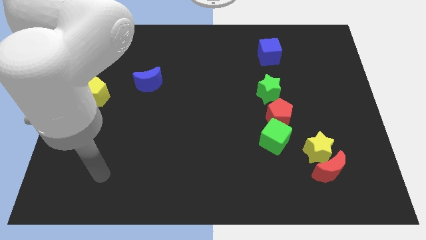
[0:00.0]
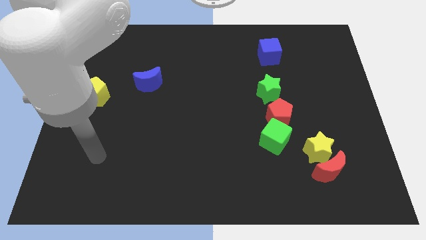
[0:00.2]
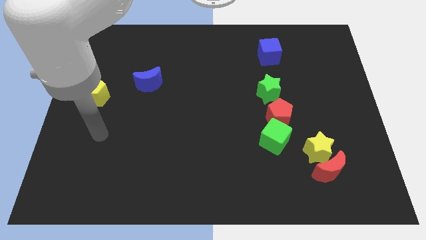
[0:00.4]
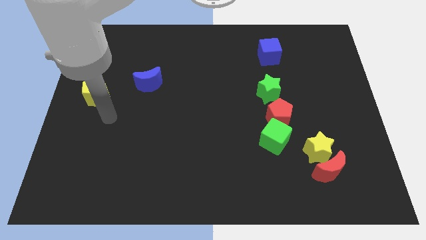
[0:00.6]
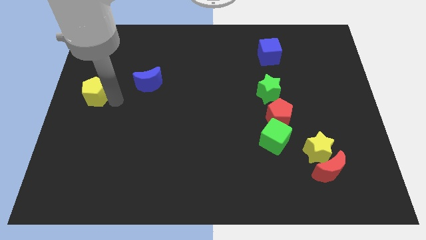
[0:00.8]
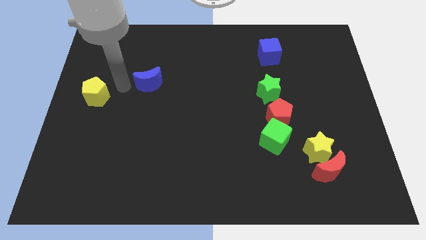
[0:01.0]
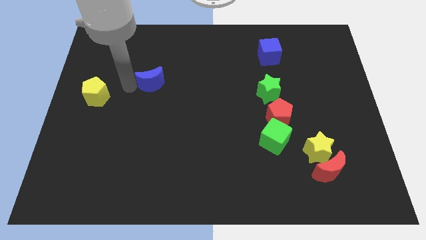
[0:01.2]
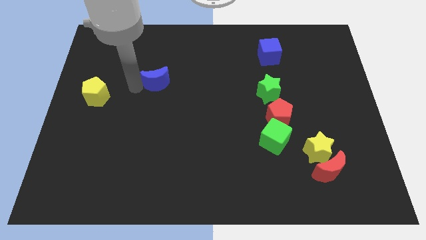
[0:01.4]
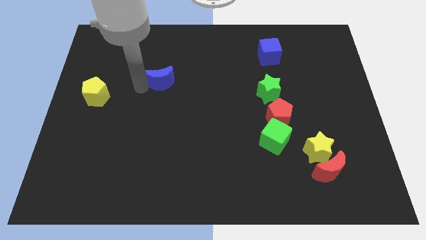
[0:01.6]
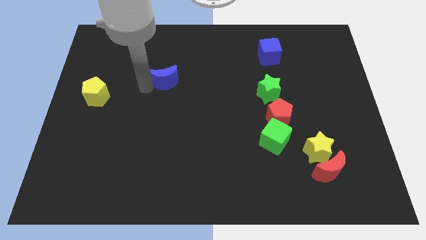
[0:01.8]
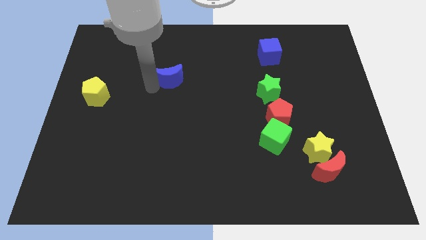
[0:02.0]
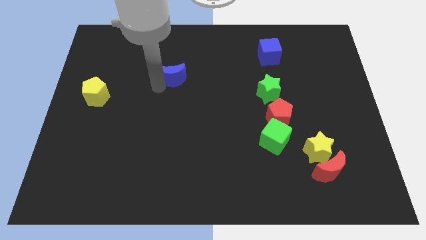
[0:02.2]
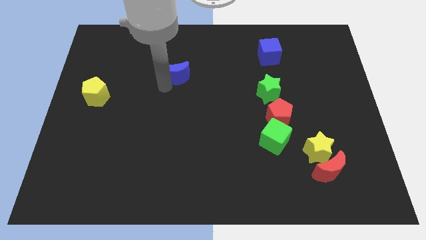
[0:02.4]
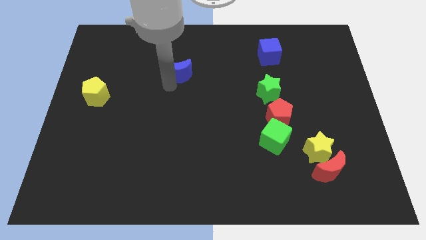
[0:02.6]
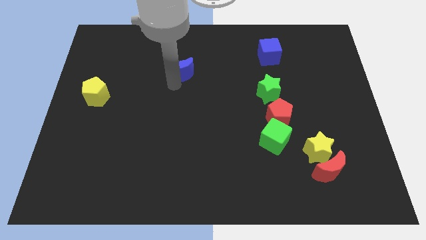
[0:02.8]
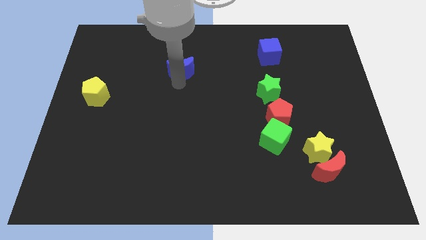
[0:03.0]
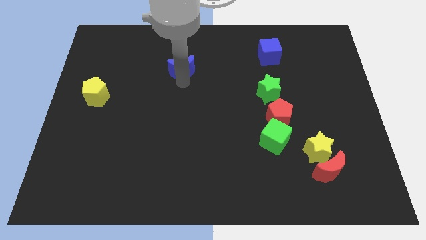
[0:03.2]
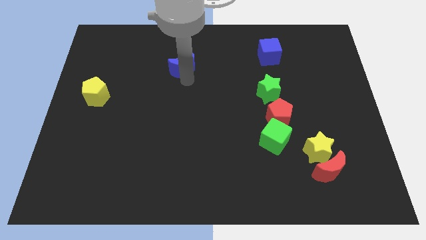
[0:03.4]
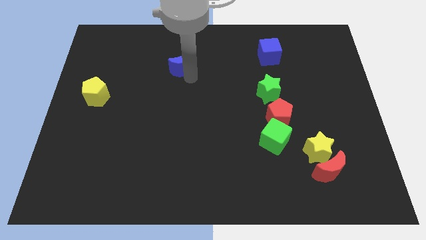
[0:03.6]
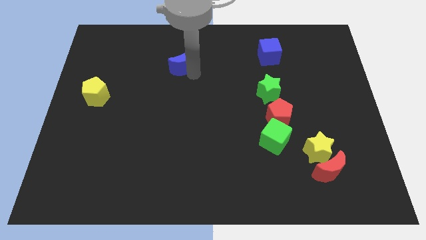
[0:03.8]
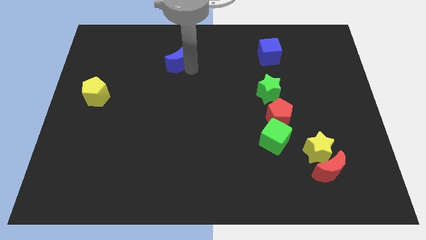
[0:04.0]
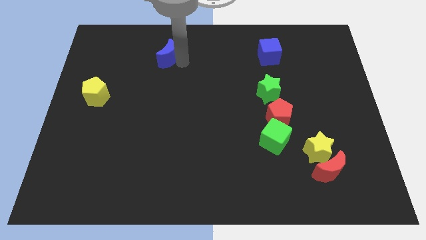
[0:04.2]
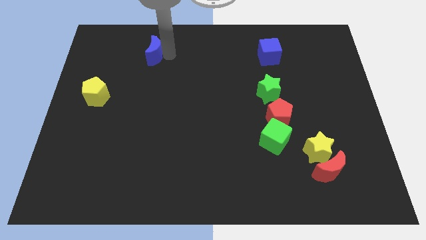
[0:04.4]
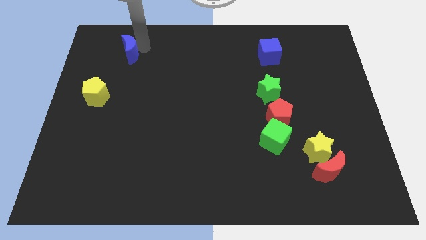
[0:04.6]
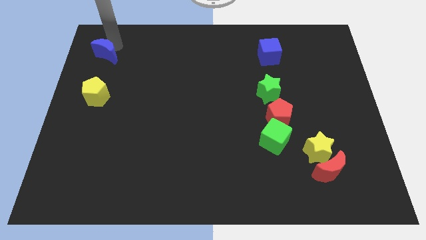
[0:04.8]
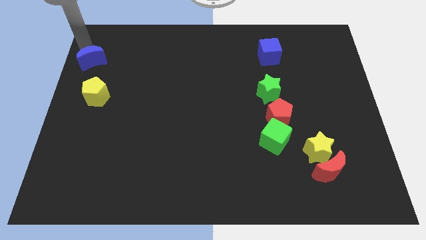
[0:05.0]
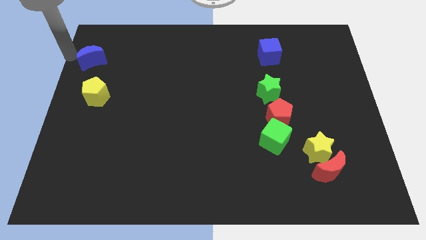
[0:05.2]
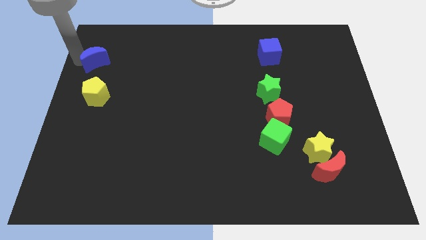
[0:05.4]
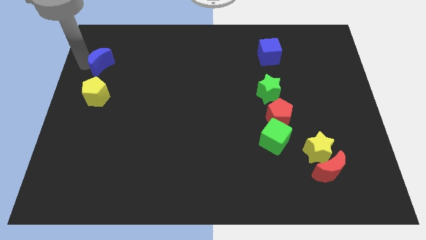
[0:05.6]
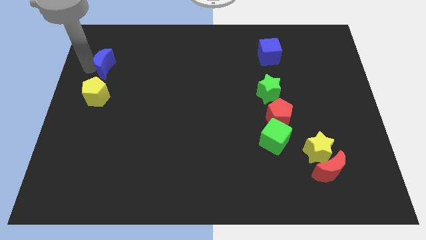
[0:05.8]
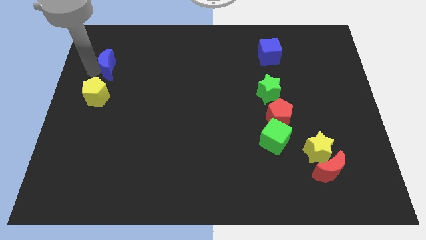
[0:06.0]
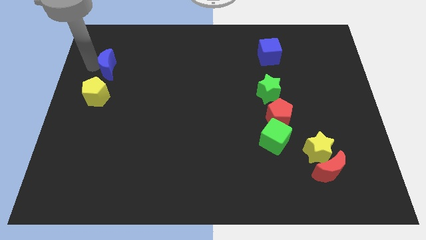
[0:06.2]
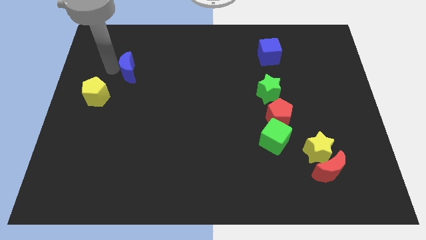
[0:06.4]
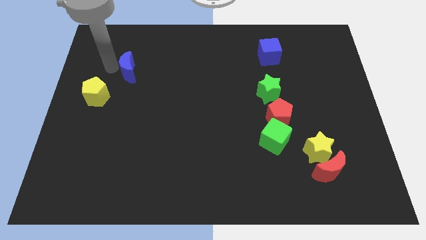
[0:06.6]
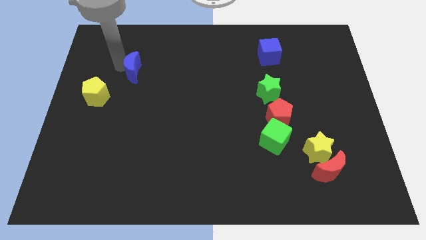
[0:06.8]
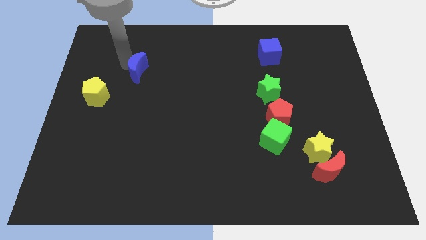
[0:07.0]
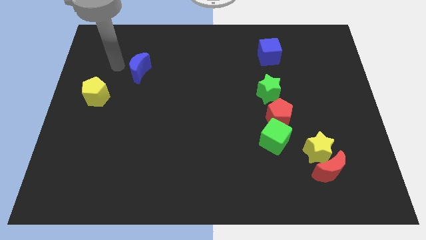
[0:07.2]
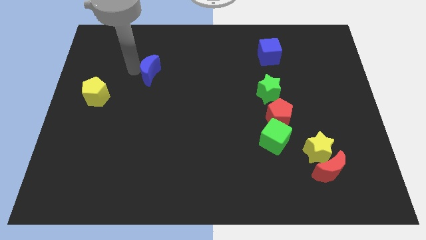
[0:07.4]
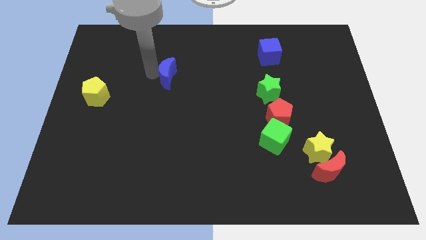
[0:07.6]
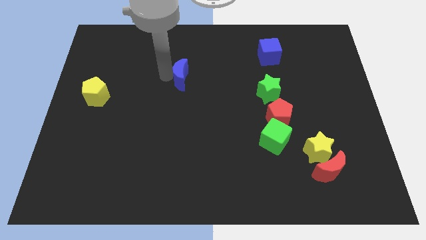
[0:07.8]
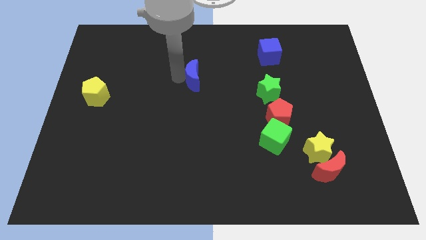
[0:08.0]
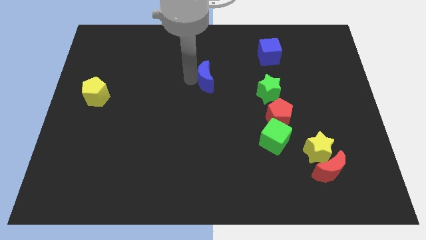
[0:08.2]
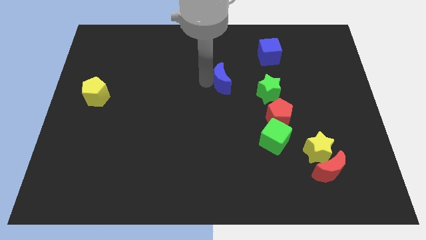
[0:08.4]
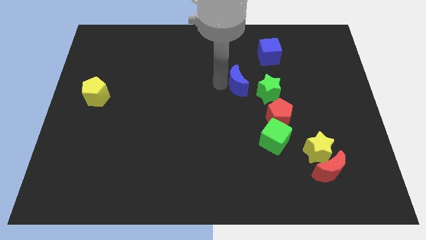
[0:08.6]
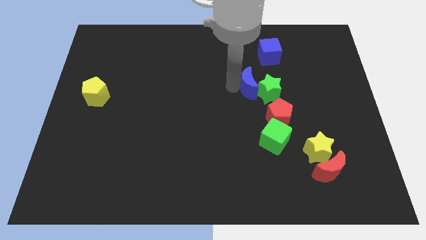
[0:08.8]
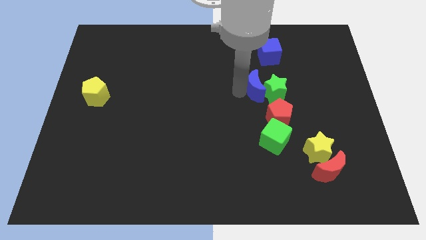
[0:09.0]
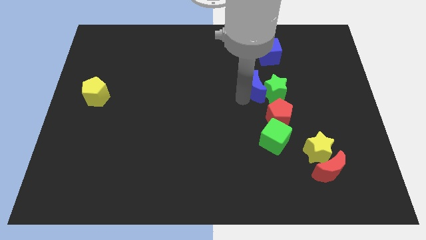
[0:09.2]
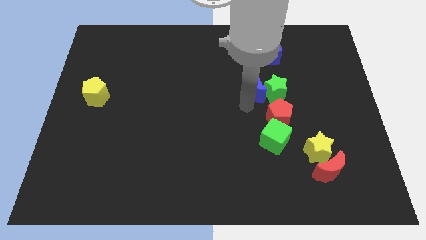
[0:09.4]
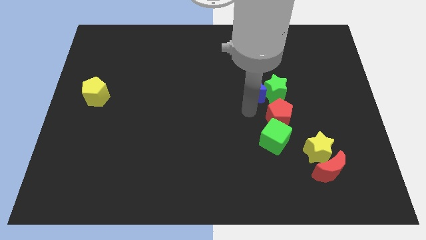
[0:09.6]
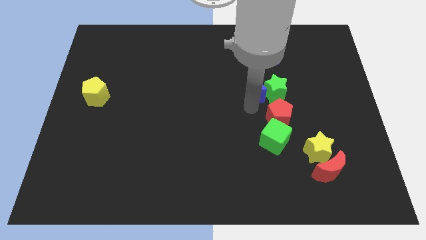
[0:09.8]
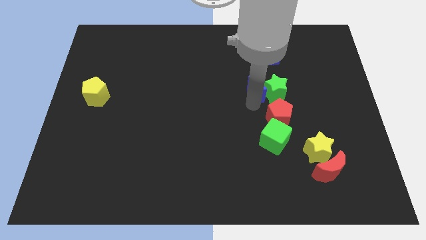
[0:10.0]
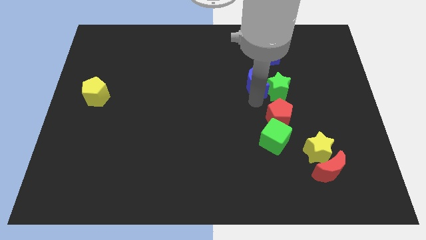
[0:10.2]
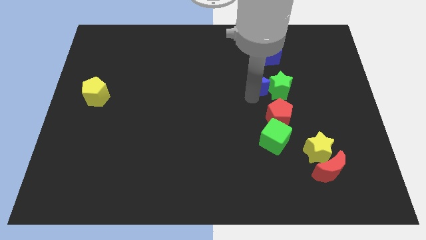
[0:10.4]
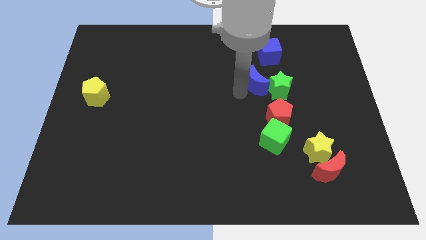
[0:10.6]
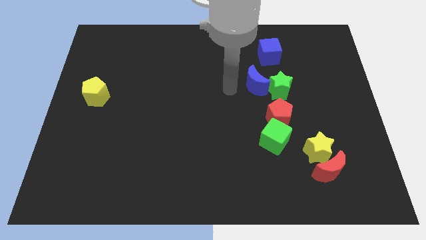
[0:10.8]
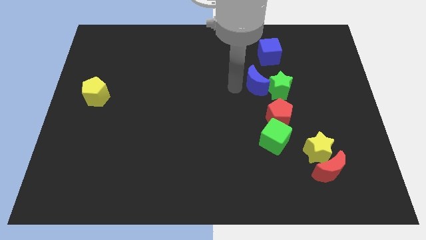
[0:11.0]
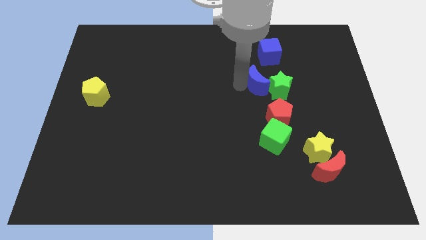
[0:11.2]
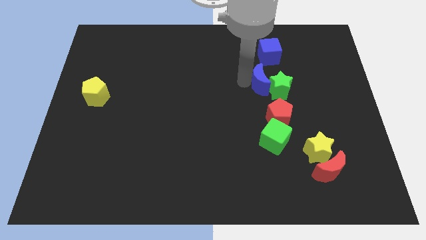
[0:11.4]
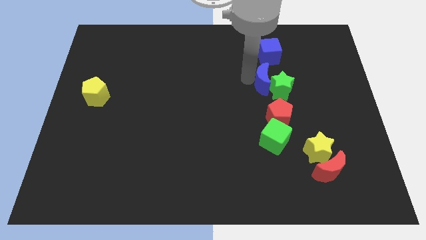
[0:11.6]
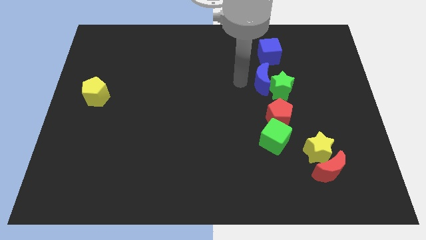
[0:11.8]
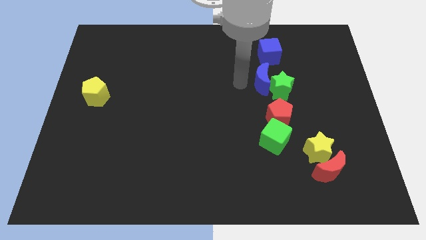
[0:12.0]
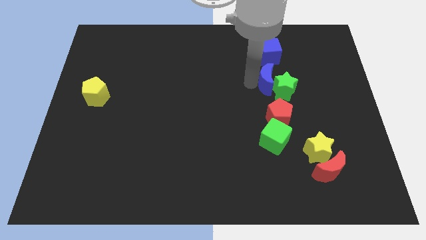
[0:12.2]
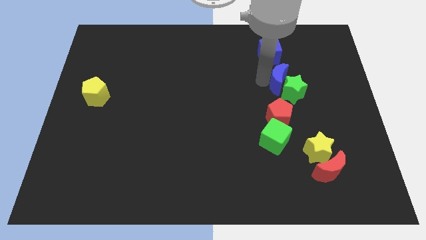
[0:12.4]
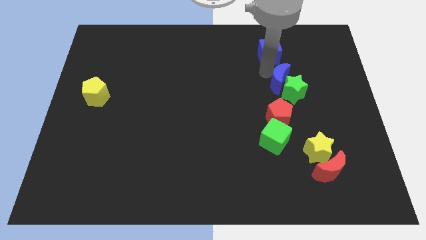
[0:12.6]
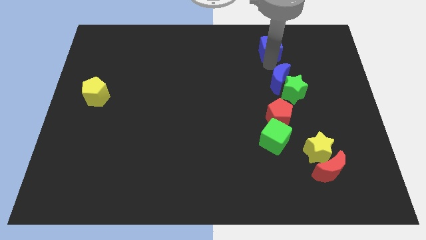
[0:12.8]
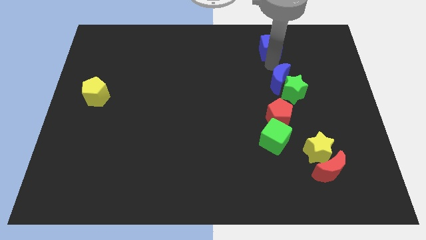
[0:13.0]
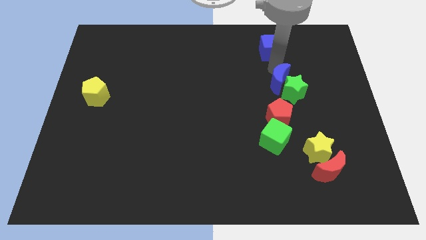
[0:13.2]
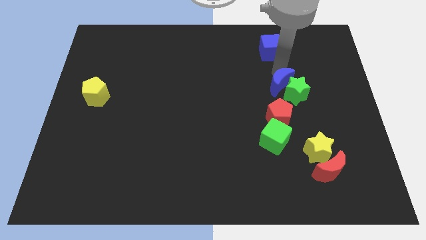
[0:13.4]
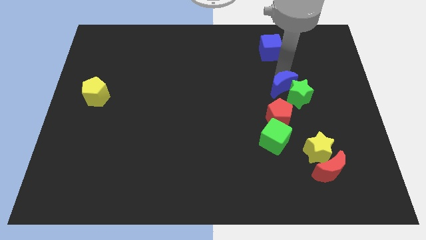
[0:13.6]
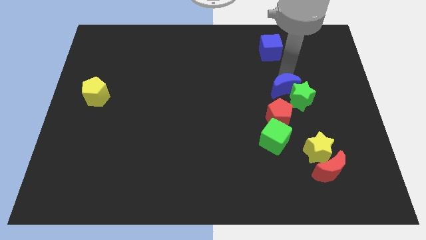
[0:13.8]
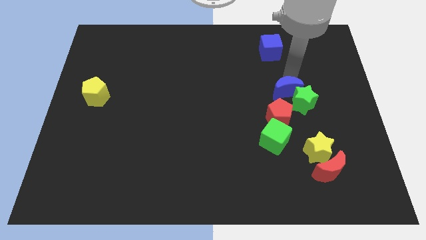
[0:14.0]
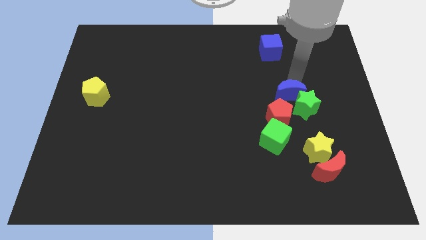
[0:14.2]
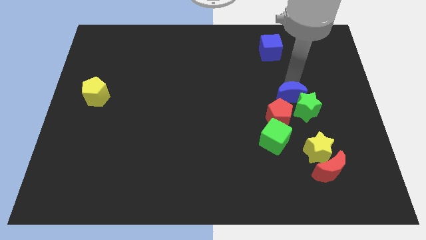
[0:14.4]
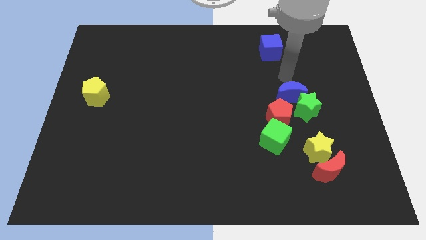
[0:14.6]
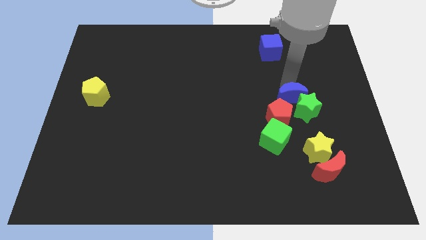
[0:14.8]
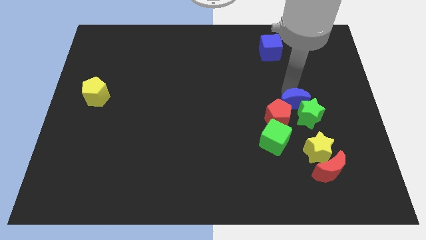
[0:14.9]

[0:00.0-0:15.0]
move the blue moon to the top right side of the green cube
